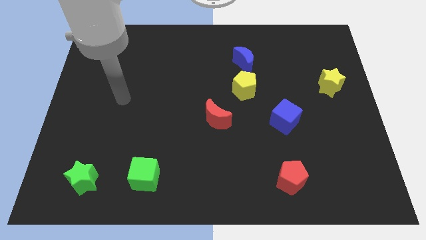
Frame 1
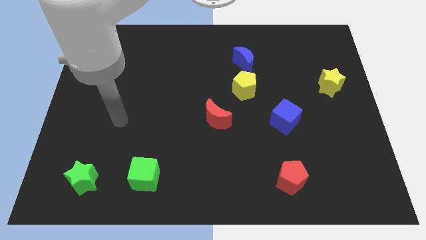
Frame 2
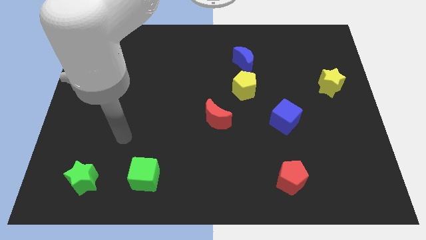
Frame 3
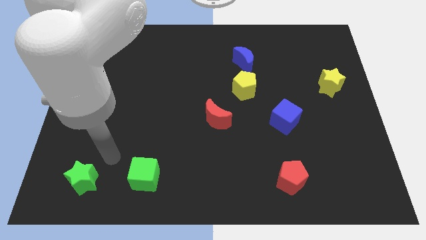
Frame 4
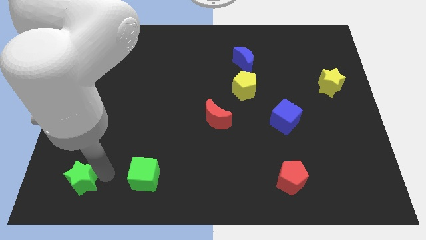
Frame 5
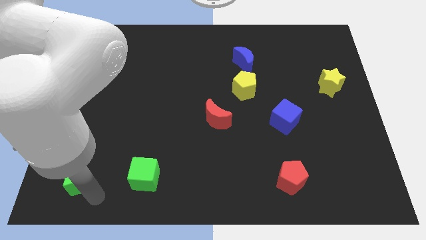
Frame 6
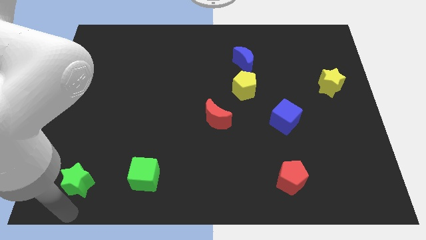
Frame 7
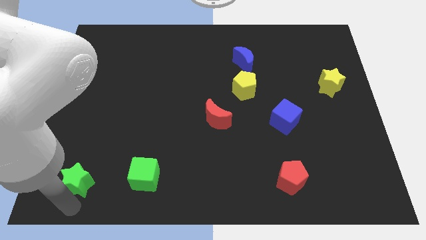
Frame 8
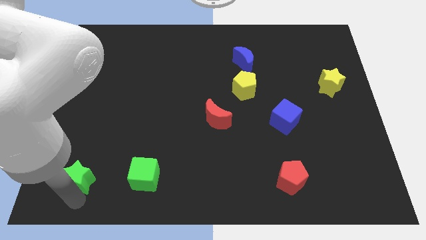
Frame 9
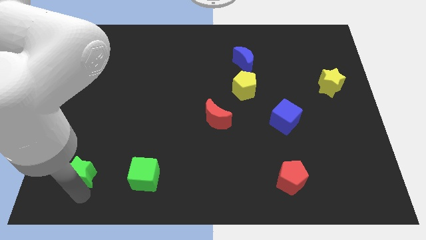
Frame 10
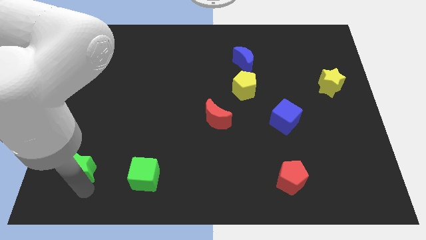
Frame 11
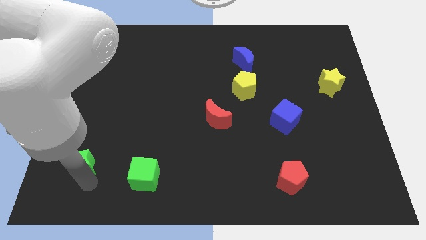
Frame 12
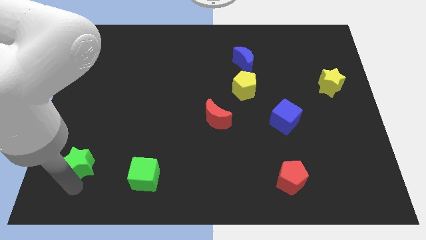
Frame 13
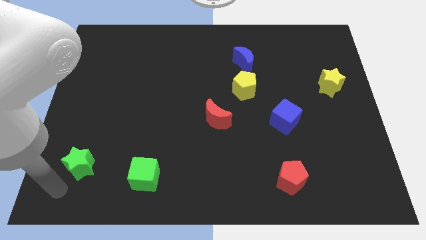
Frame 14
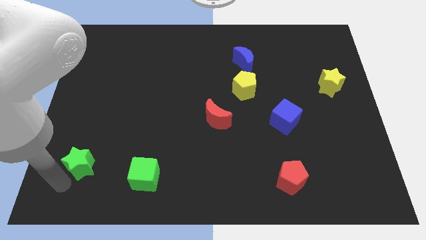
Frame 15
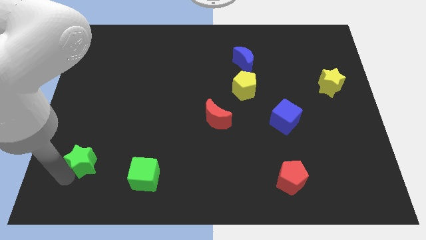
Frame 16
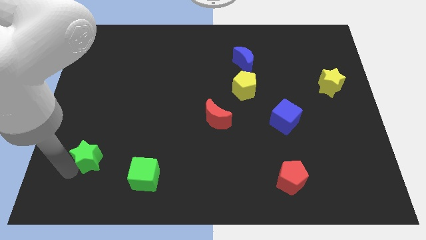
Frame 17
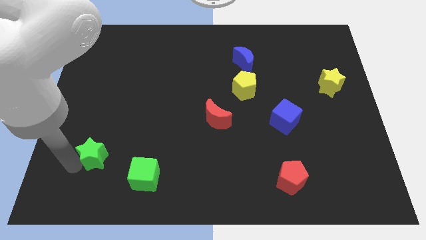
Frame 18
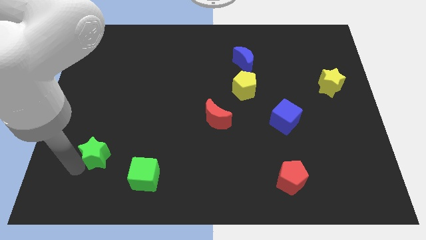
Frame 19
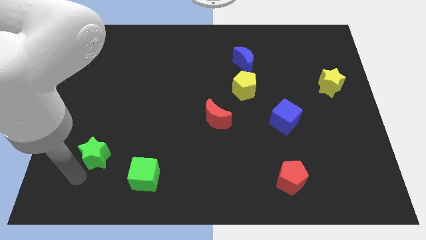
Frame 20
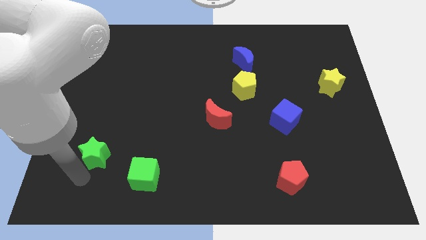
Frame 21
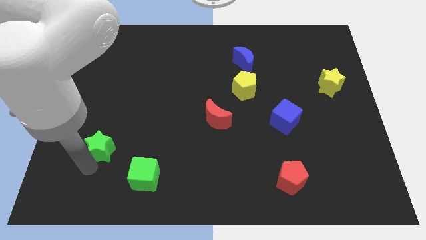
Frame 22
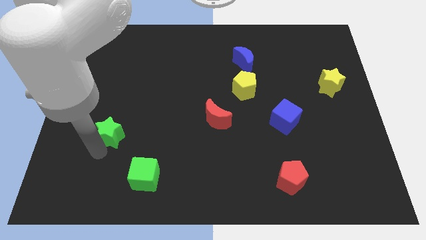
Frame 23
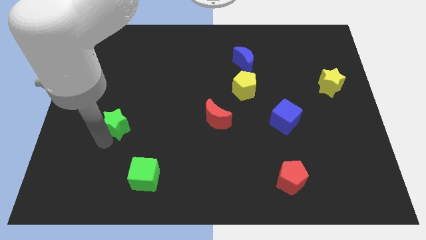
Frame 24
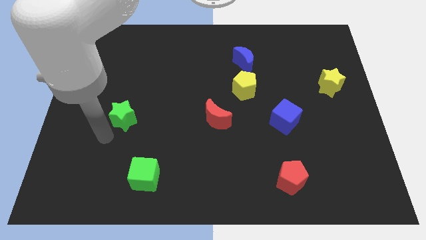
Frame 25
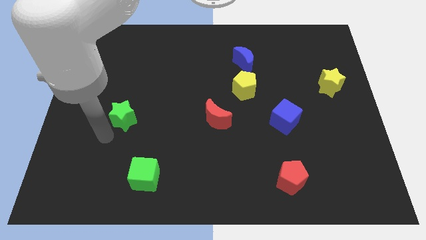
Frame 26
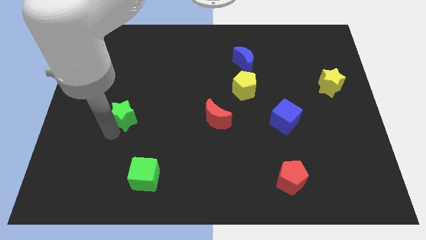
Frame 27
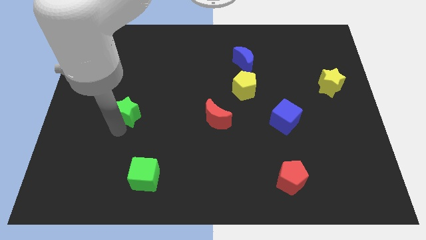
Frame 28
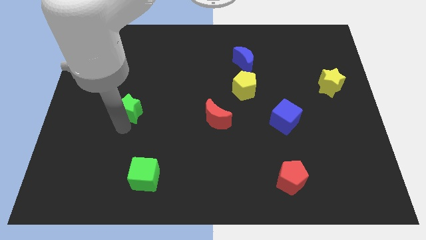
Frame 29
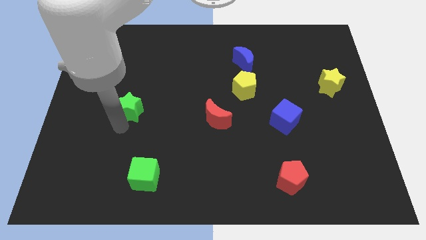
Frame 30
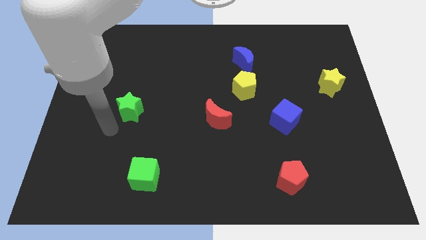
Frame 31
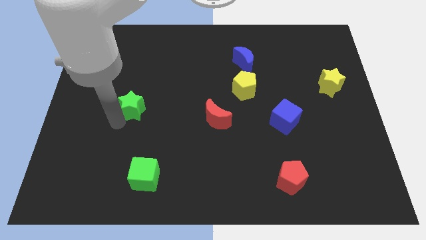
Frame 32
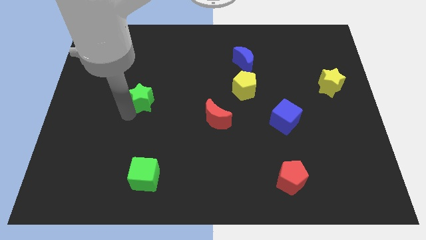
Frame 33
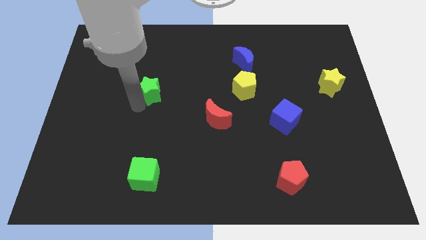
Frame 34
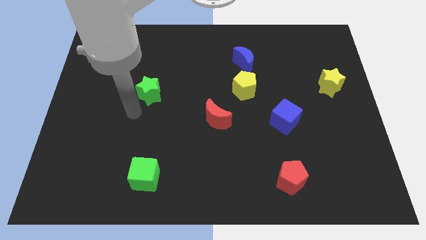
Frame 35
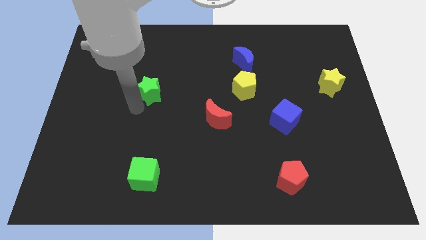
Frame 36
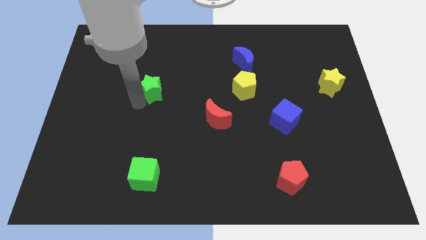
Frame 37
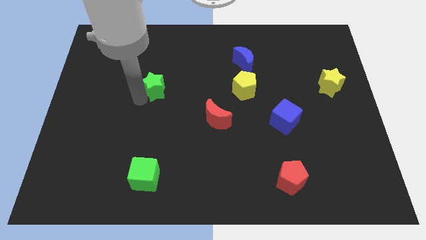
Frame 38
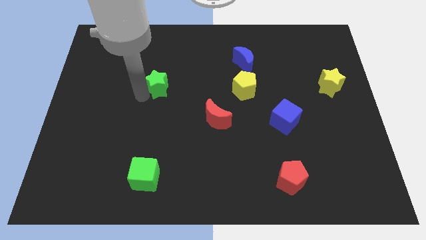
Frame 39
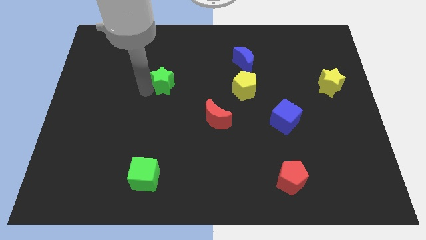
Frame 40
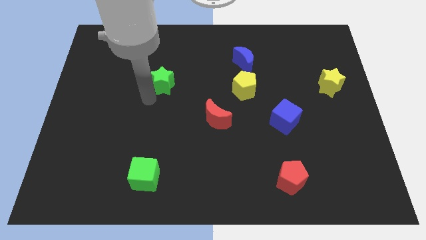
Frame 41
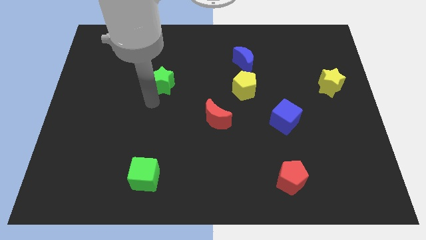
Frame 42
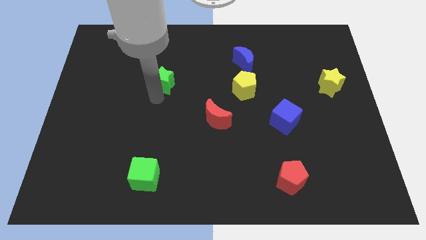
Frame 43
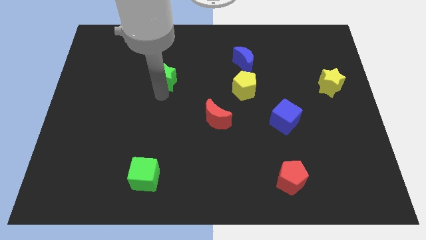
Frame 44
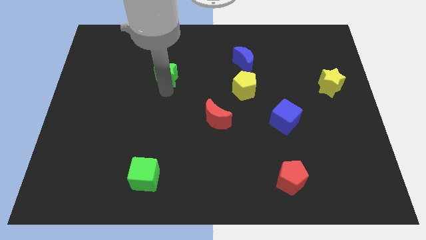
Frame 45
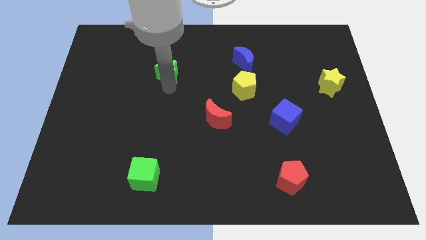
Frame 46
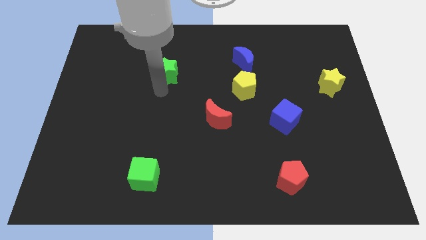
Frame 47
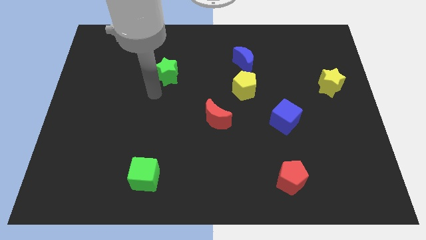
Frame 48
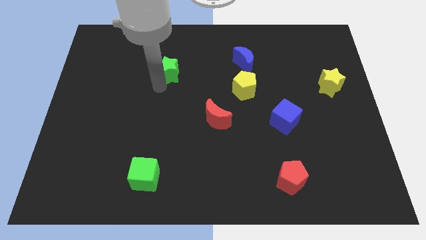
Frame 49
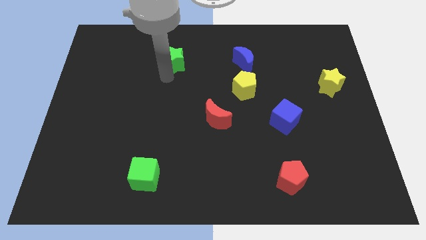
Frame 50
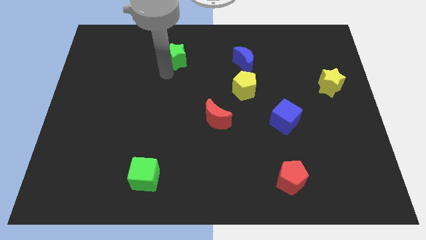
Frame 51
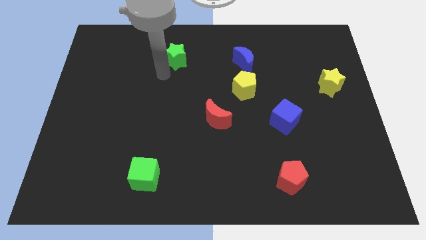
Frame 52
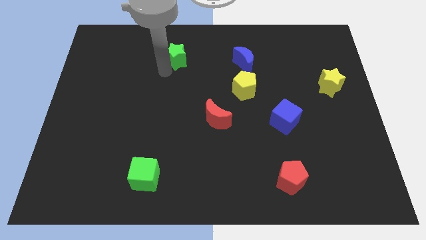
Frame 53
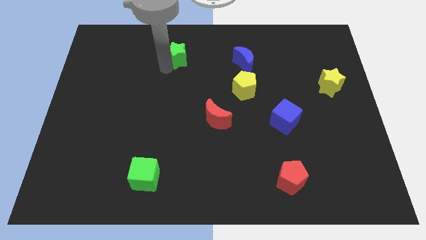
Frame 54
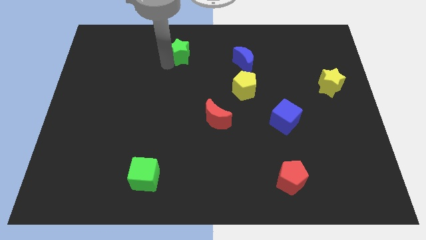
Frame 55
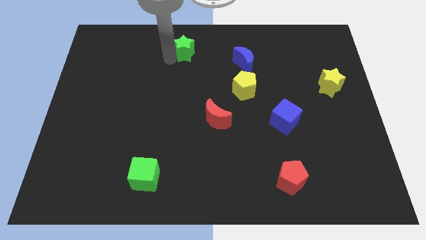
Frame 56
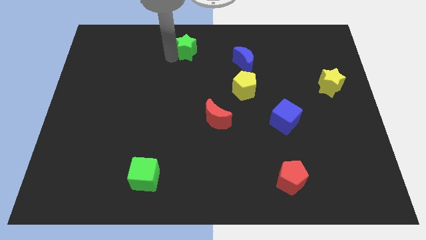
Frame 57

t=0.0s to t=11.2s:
put the green star to the top side
